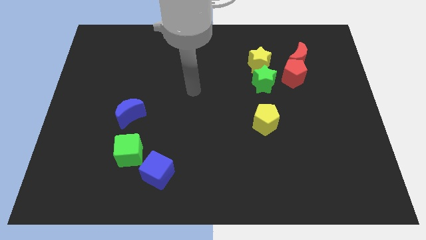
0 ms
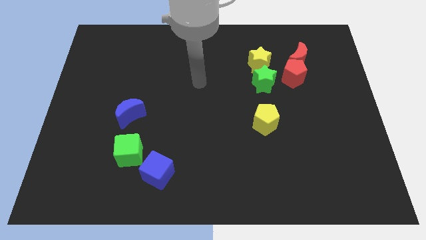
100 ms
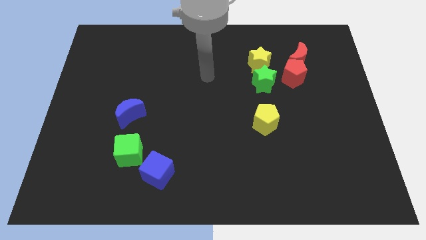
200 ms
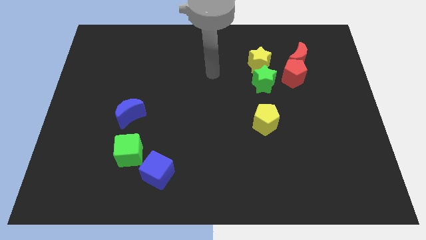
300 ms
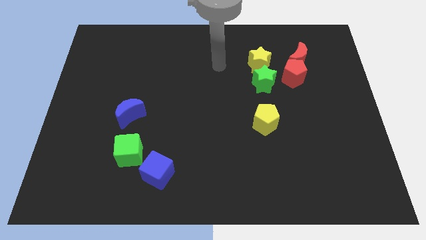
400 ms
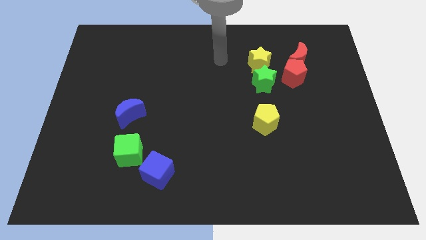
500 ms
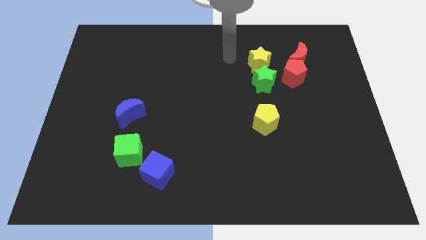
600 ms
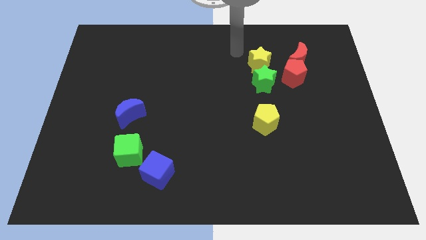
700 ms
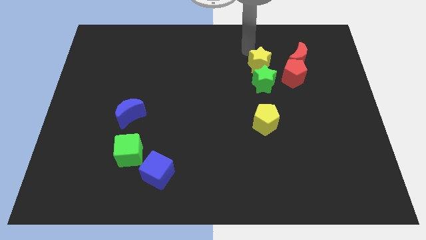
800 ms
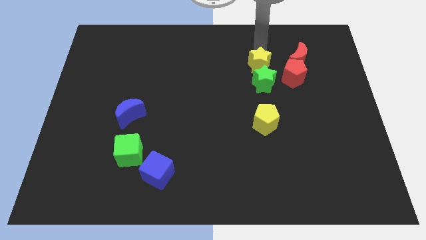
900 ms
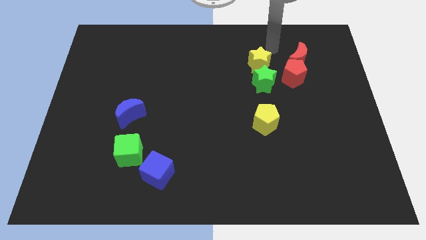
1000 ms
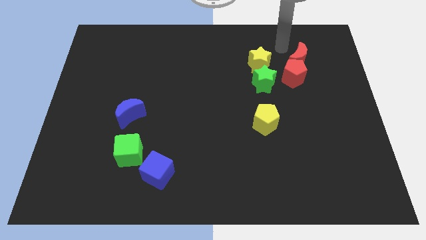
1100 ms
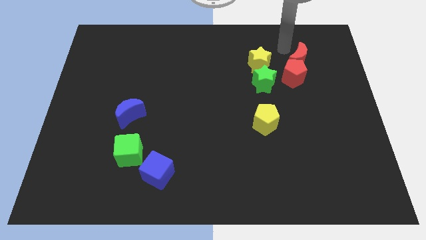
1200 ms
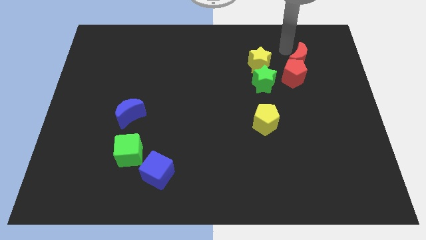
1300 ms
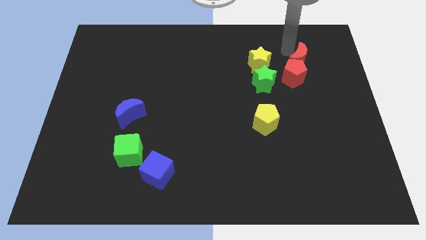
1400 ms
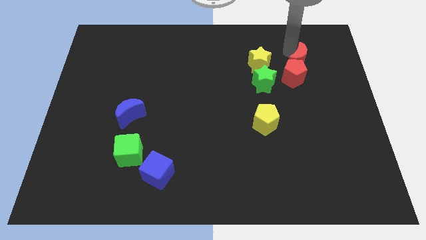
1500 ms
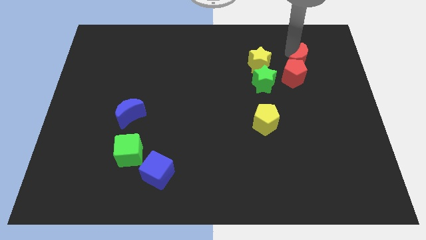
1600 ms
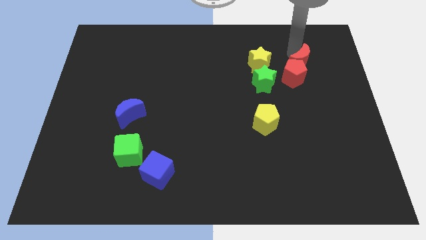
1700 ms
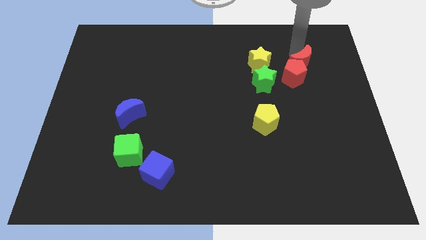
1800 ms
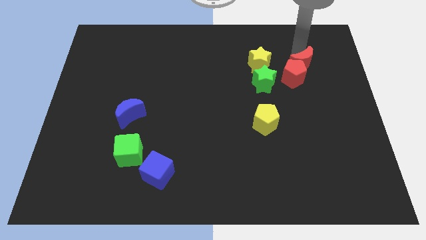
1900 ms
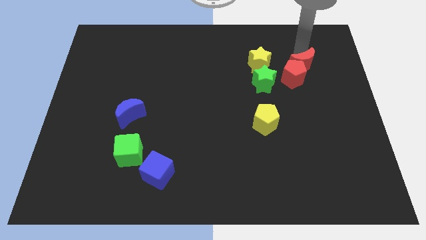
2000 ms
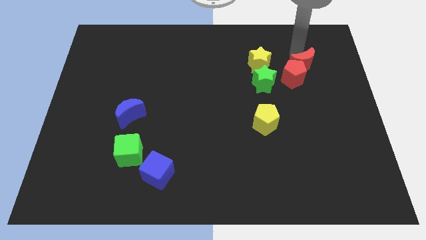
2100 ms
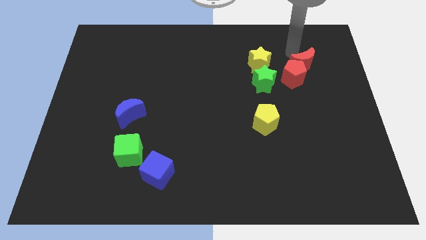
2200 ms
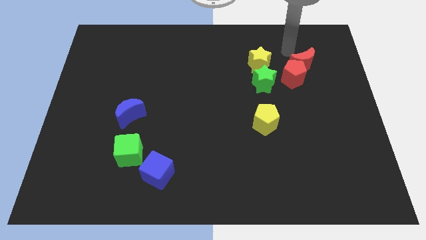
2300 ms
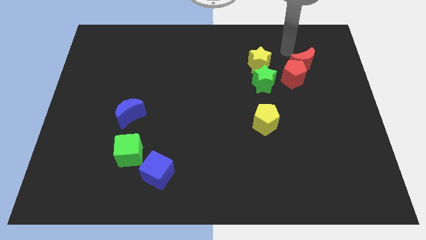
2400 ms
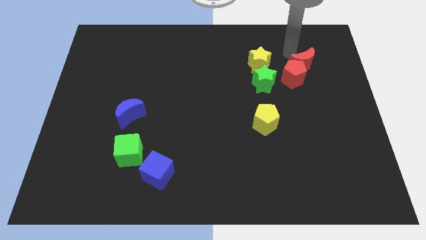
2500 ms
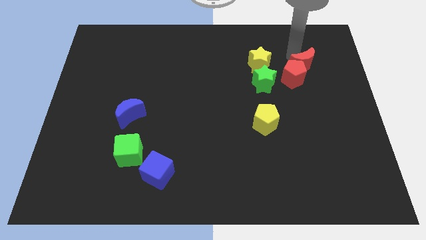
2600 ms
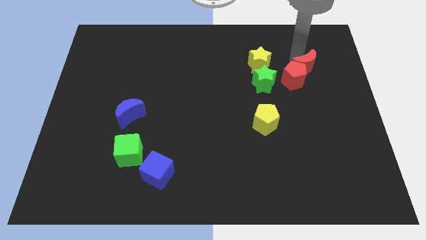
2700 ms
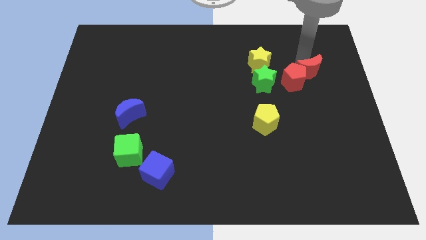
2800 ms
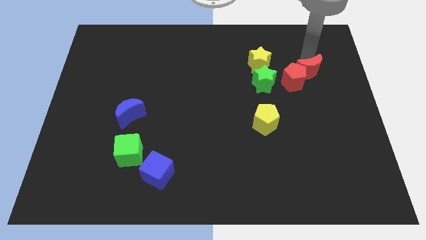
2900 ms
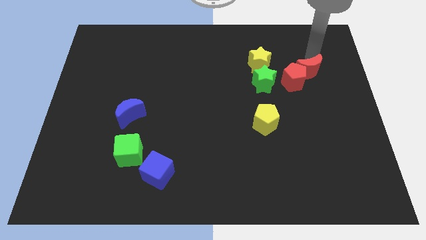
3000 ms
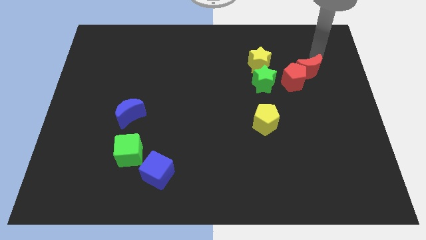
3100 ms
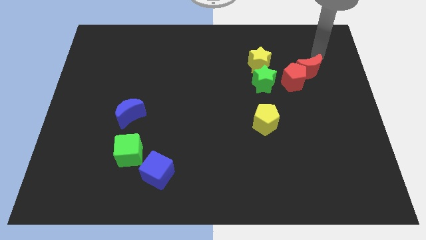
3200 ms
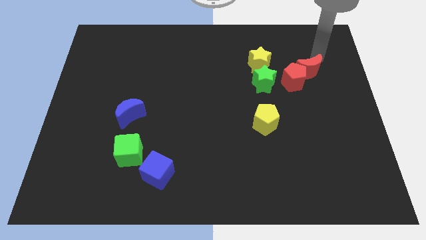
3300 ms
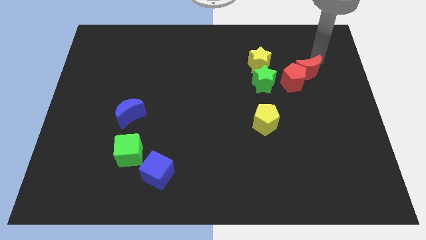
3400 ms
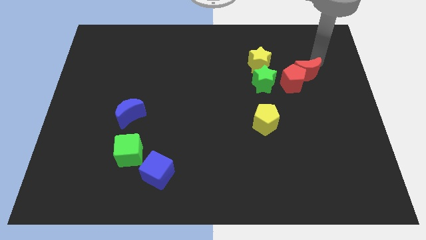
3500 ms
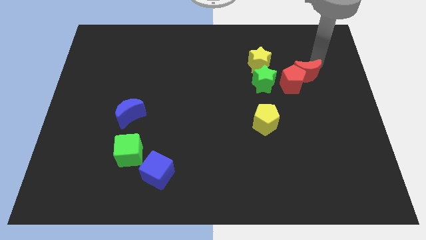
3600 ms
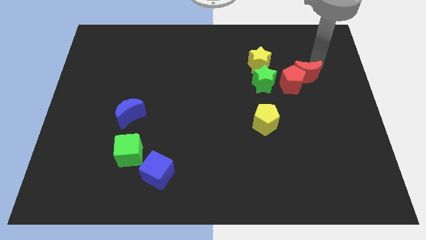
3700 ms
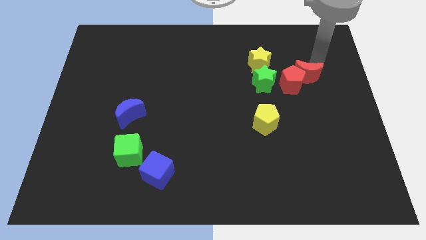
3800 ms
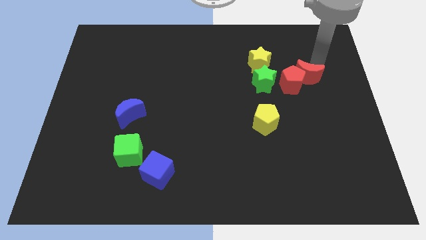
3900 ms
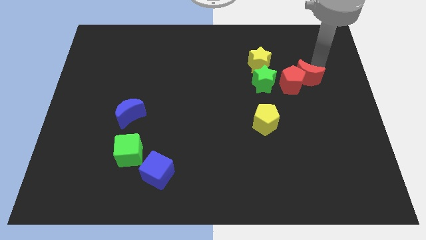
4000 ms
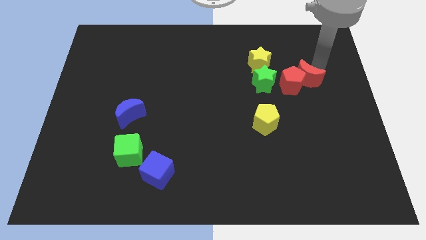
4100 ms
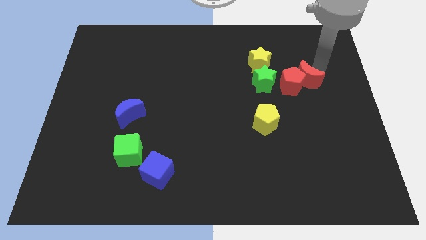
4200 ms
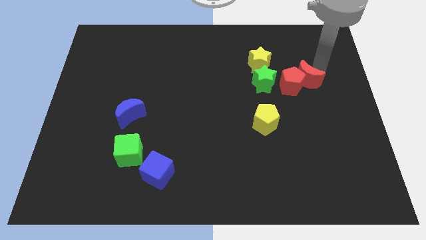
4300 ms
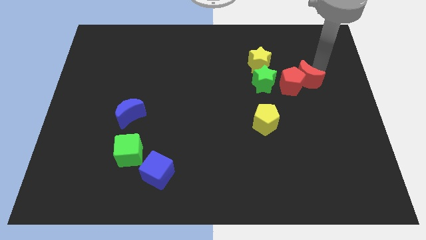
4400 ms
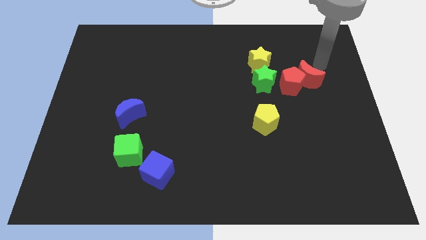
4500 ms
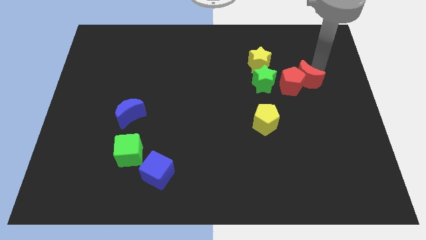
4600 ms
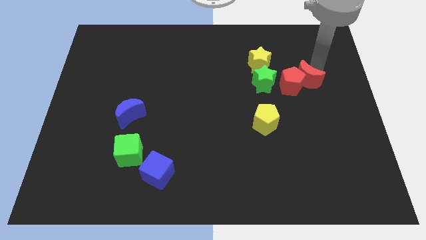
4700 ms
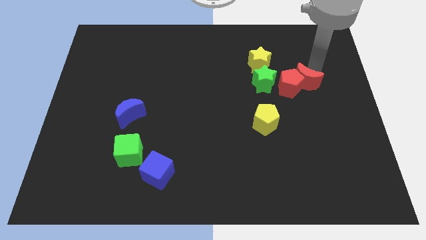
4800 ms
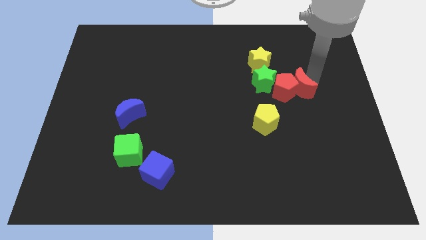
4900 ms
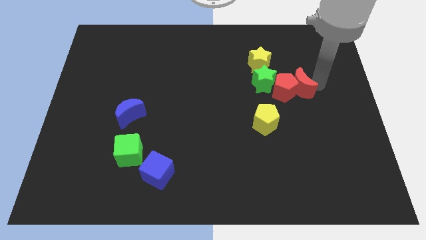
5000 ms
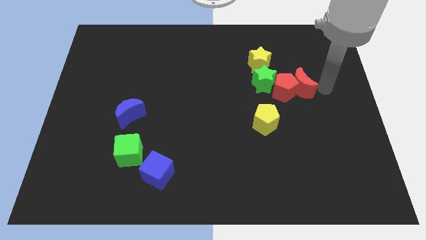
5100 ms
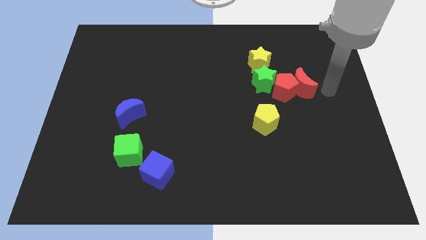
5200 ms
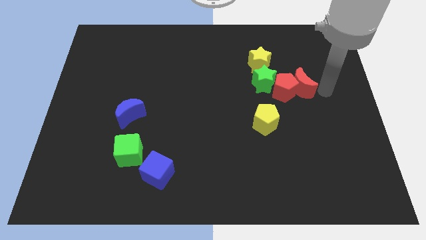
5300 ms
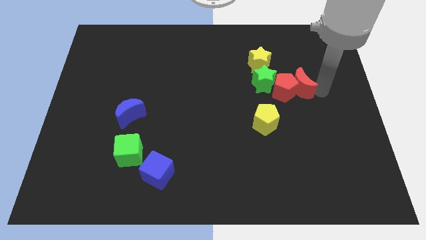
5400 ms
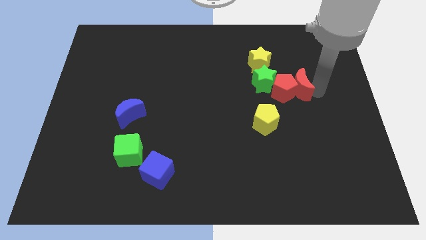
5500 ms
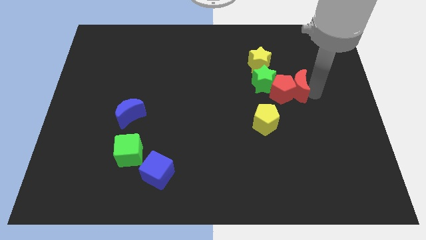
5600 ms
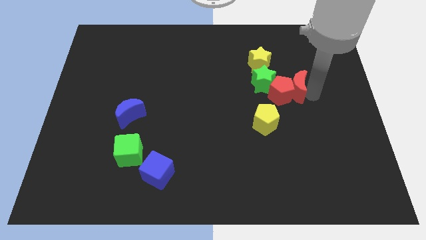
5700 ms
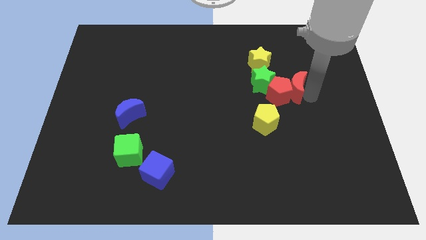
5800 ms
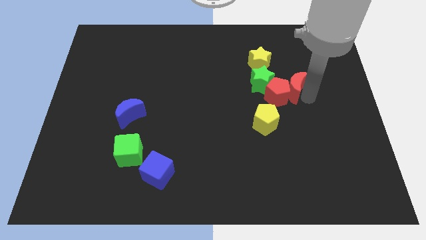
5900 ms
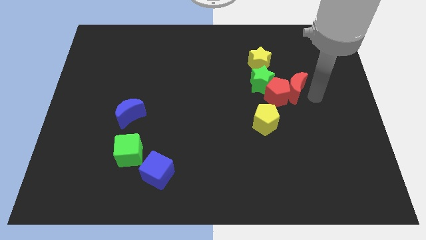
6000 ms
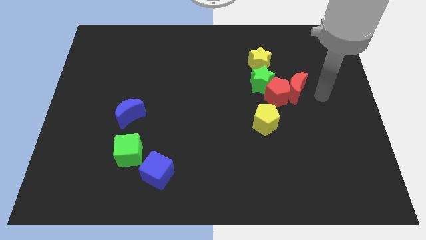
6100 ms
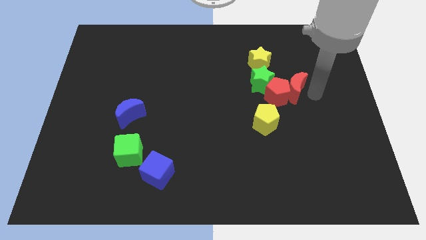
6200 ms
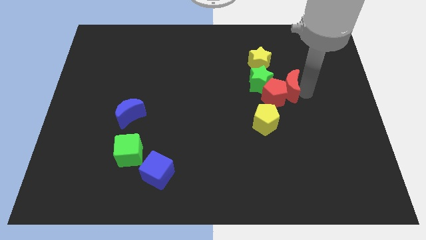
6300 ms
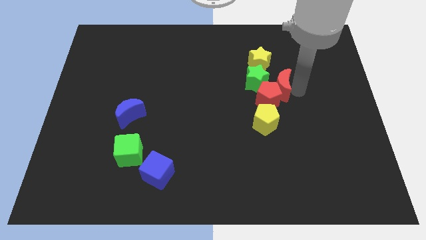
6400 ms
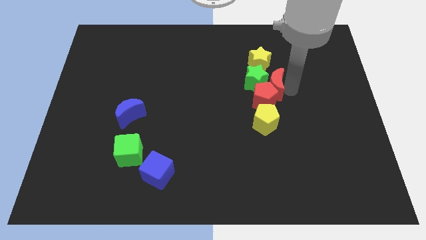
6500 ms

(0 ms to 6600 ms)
push the red moon to the green star

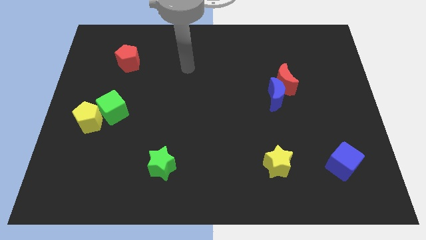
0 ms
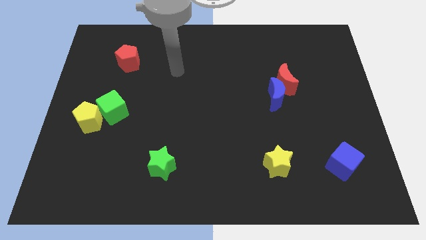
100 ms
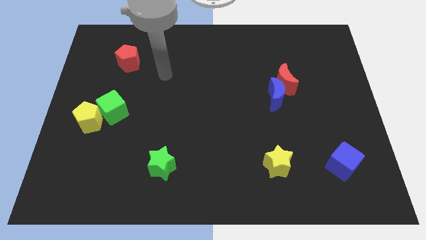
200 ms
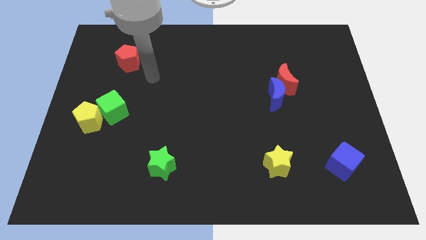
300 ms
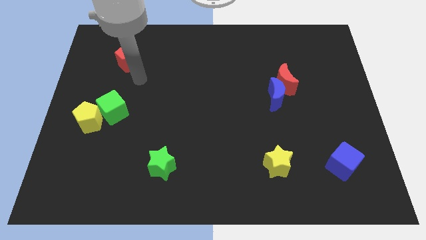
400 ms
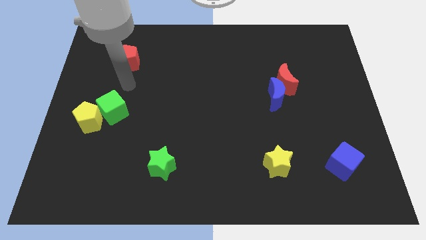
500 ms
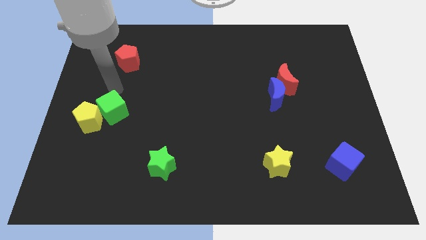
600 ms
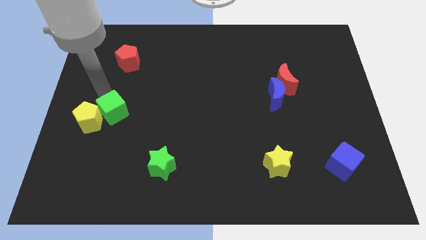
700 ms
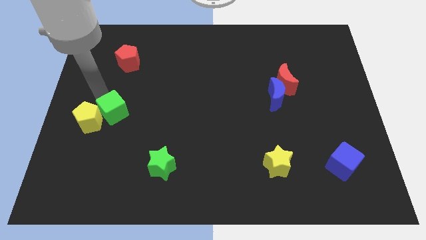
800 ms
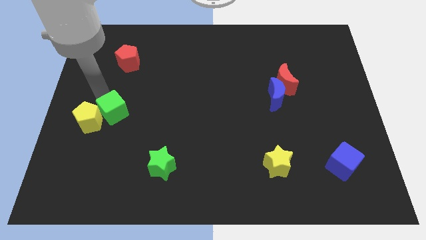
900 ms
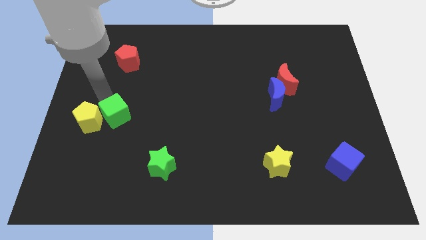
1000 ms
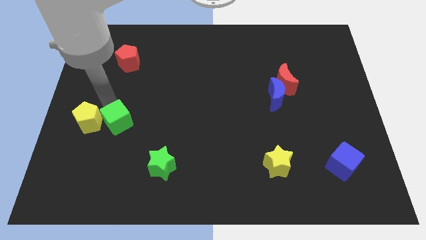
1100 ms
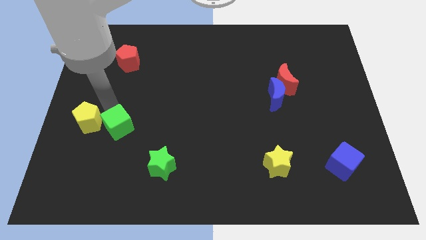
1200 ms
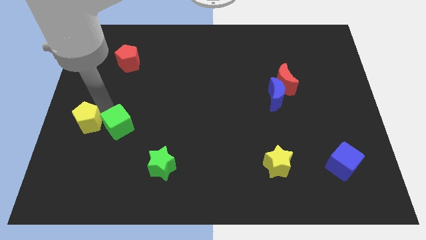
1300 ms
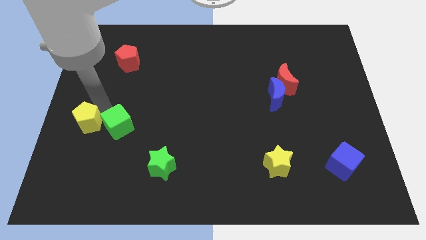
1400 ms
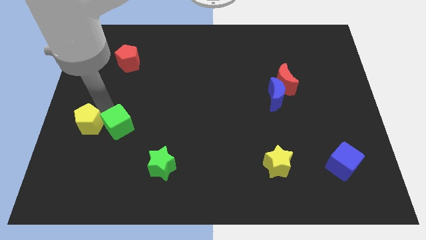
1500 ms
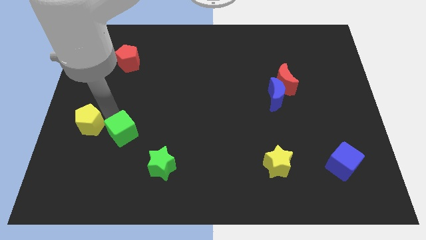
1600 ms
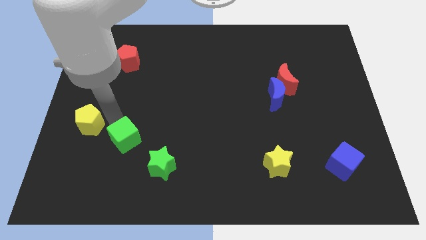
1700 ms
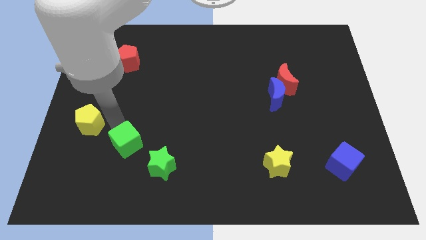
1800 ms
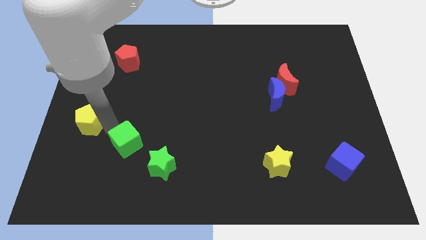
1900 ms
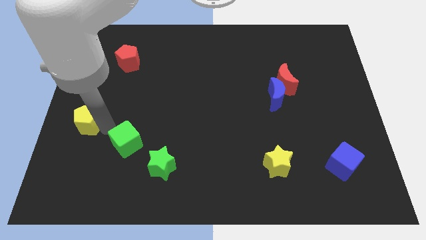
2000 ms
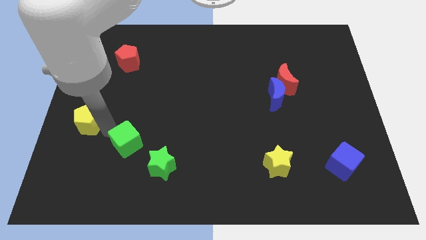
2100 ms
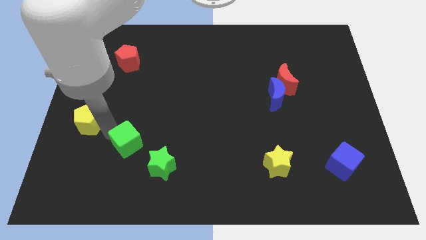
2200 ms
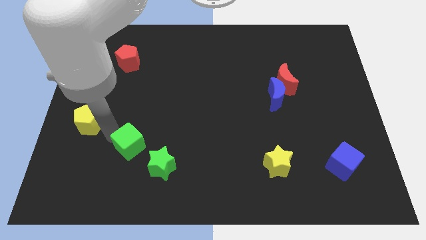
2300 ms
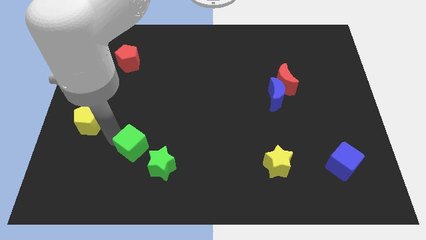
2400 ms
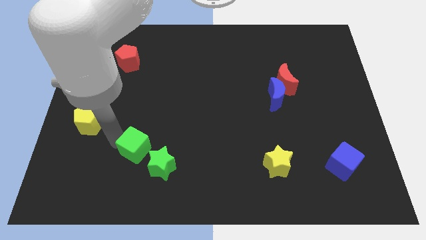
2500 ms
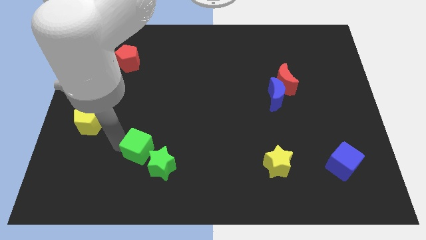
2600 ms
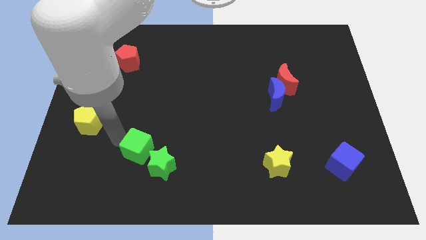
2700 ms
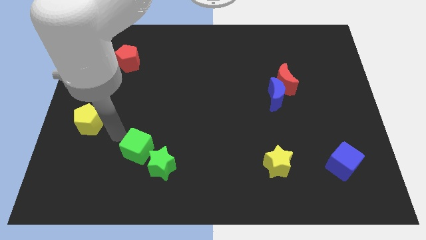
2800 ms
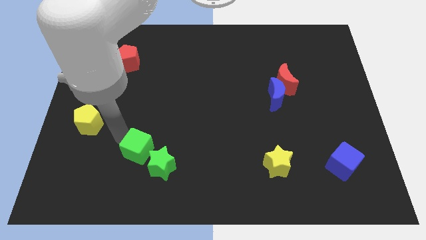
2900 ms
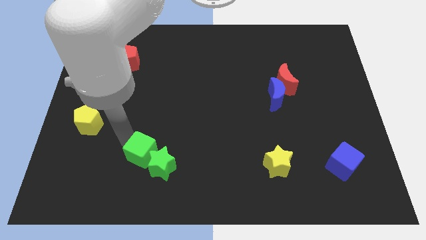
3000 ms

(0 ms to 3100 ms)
slide the green cube towards the green star
